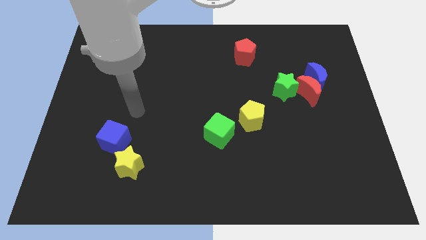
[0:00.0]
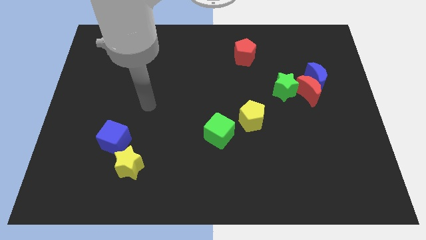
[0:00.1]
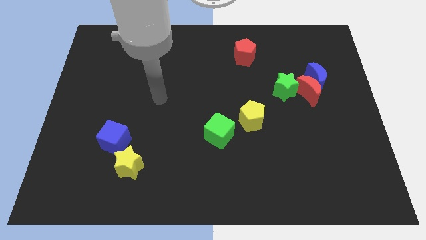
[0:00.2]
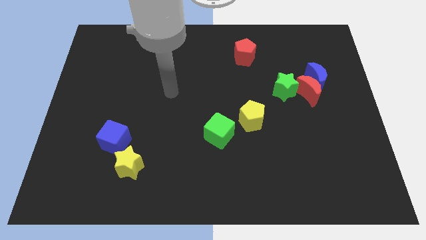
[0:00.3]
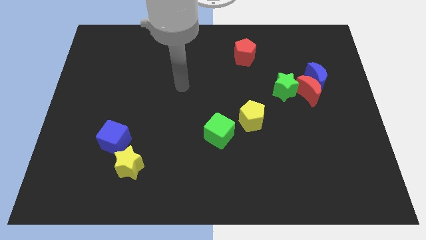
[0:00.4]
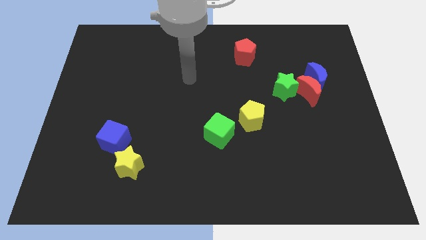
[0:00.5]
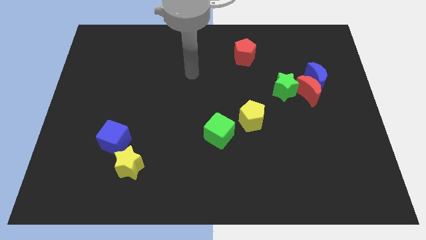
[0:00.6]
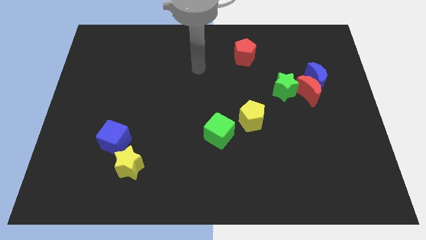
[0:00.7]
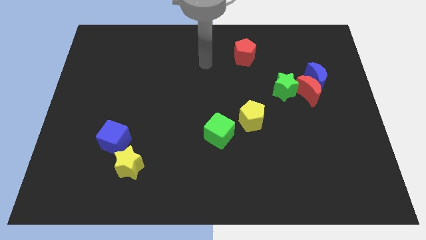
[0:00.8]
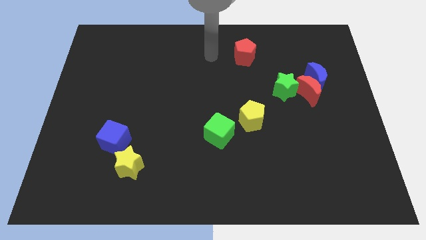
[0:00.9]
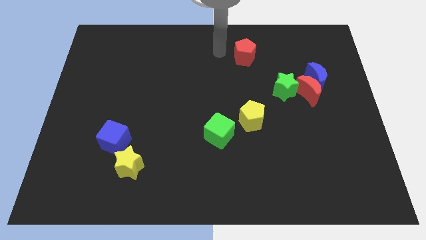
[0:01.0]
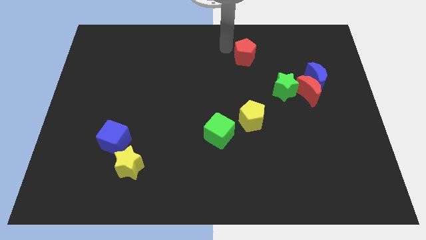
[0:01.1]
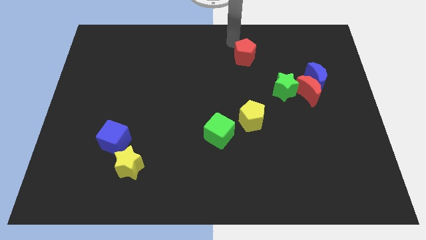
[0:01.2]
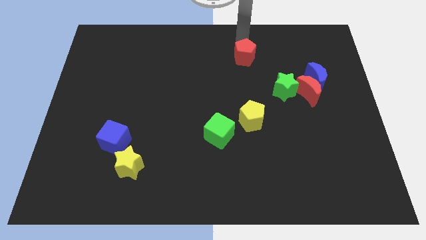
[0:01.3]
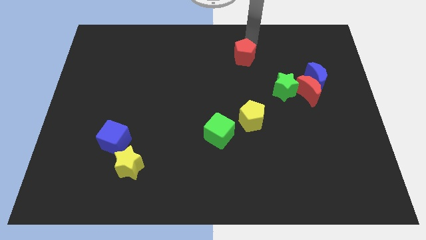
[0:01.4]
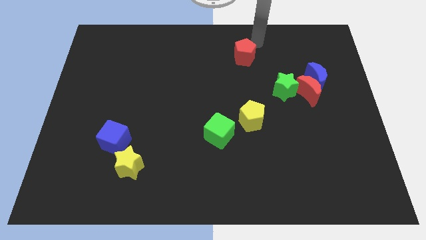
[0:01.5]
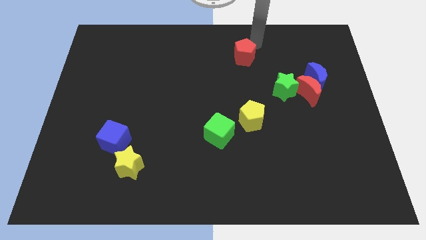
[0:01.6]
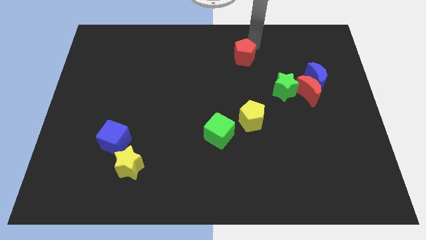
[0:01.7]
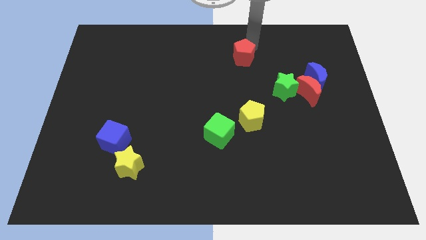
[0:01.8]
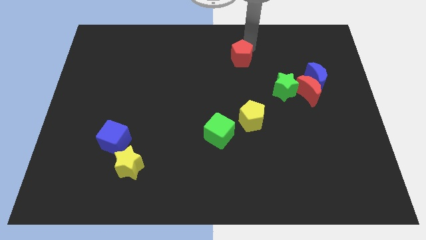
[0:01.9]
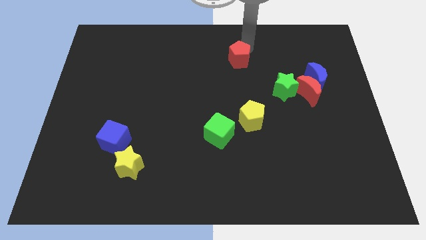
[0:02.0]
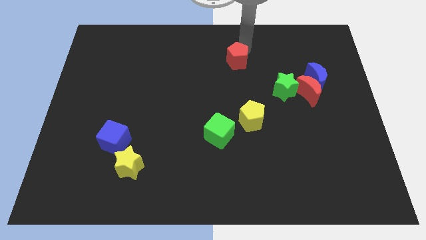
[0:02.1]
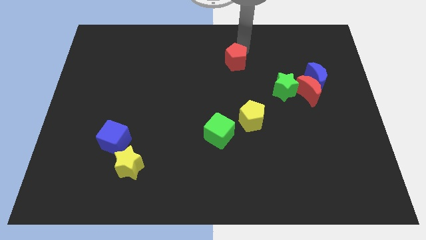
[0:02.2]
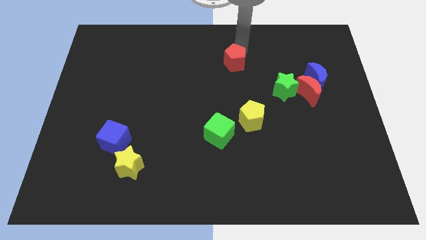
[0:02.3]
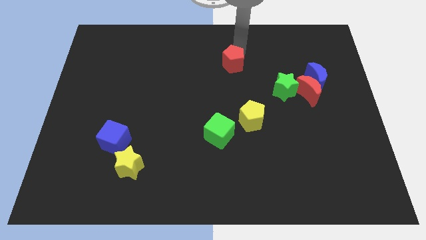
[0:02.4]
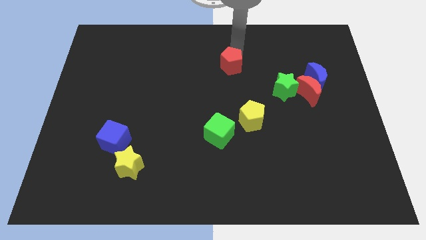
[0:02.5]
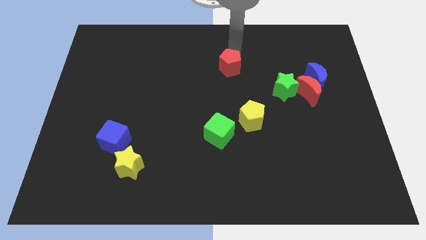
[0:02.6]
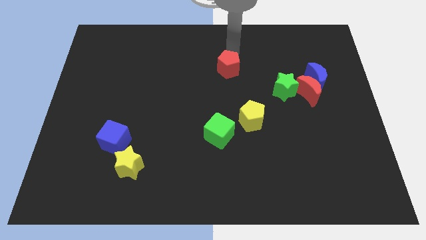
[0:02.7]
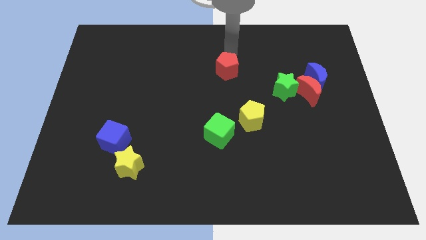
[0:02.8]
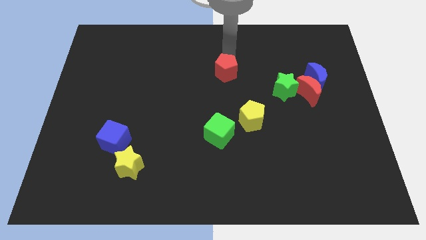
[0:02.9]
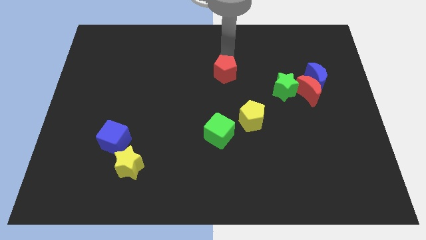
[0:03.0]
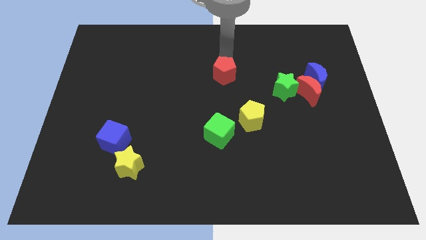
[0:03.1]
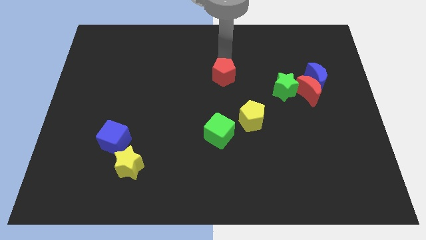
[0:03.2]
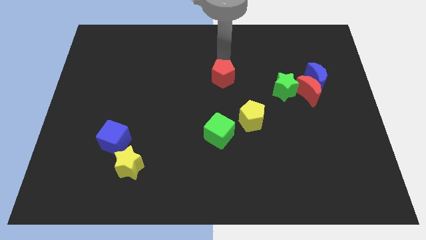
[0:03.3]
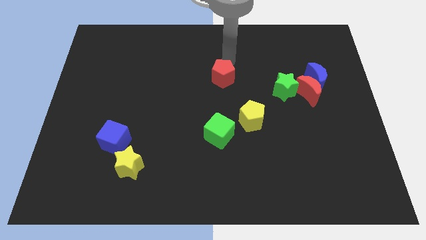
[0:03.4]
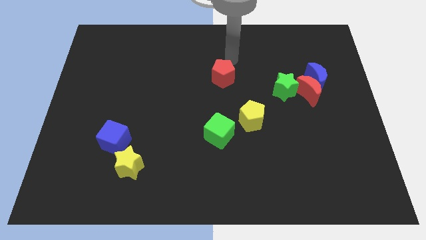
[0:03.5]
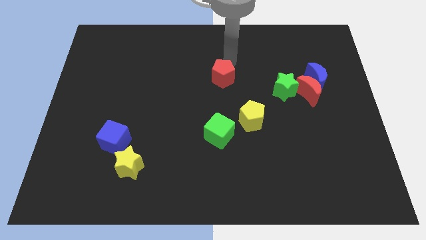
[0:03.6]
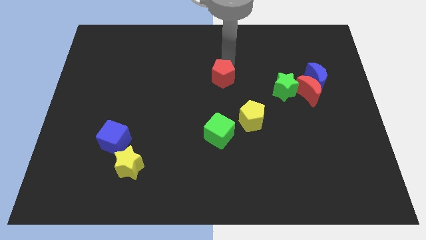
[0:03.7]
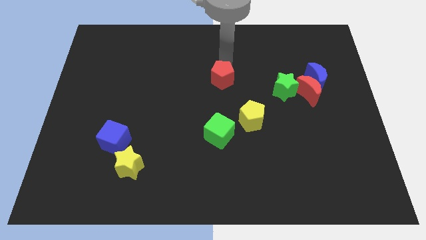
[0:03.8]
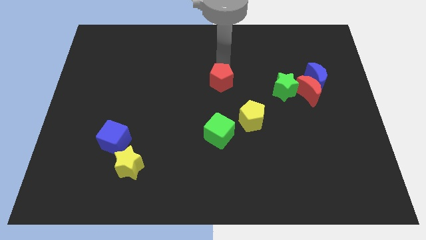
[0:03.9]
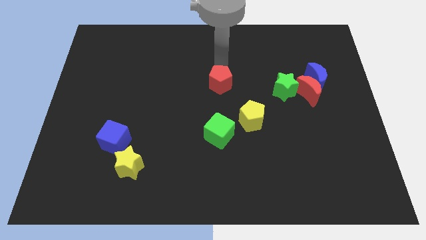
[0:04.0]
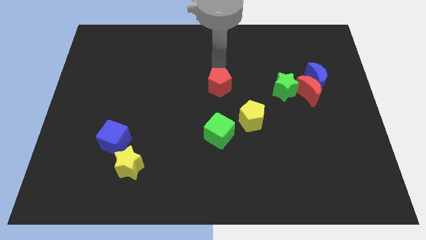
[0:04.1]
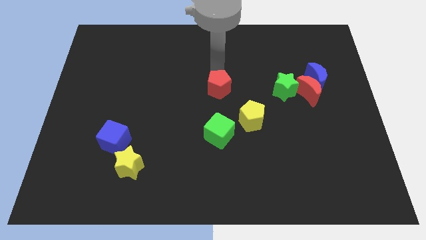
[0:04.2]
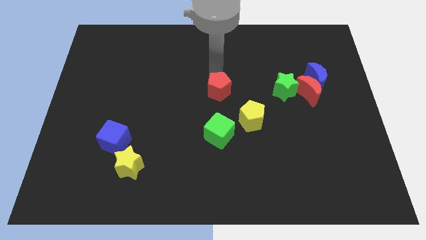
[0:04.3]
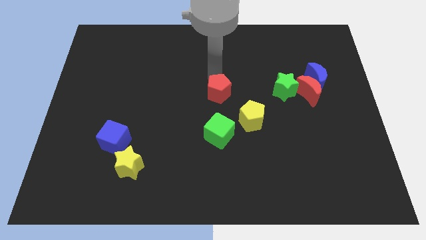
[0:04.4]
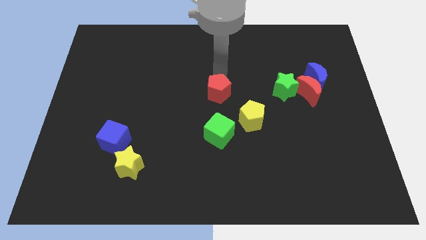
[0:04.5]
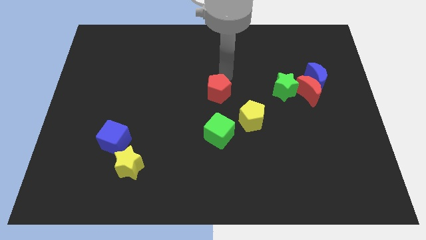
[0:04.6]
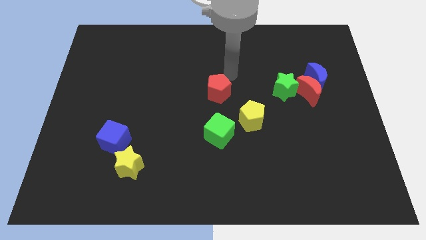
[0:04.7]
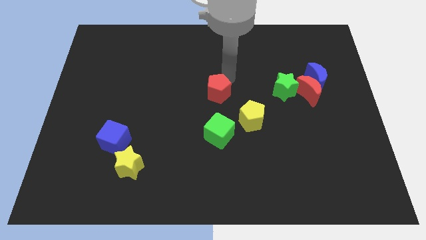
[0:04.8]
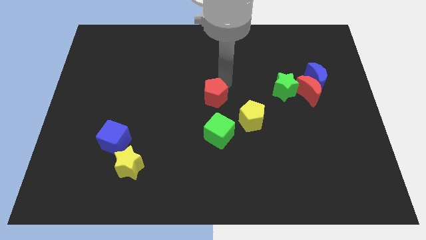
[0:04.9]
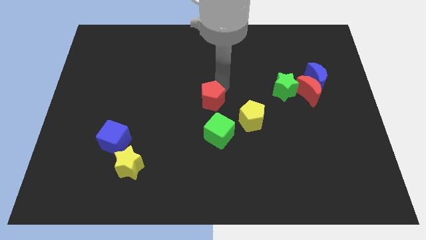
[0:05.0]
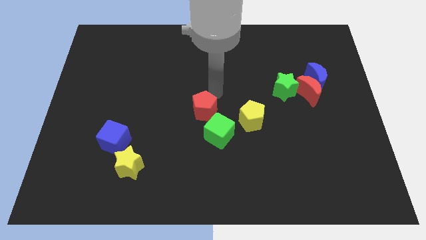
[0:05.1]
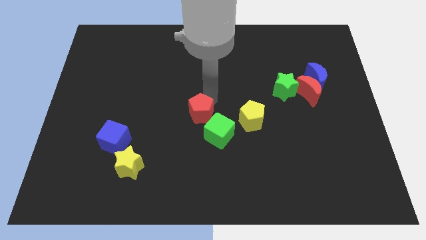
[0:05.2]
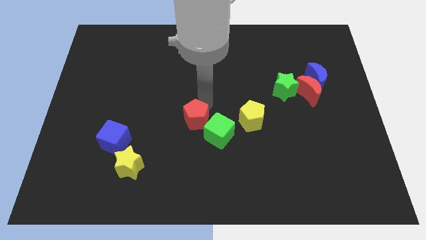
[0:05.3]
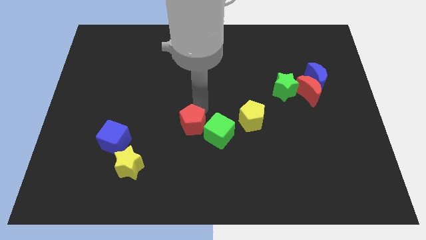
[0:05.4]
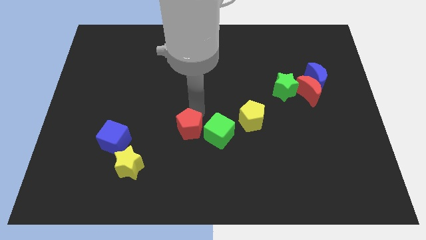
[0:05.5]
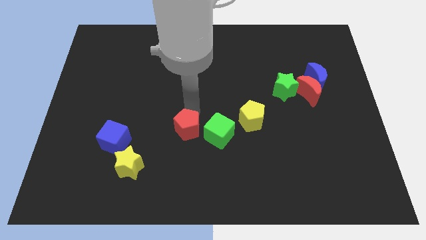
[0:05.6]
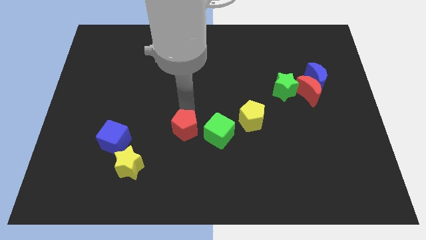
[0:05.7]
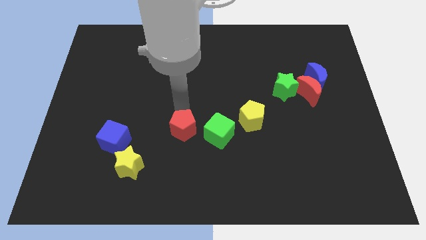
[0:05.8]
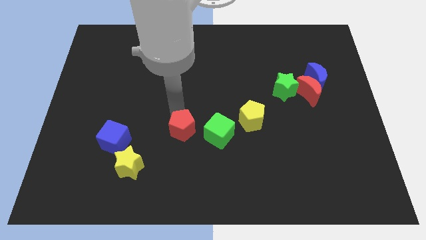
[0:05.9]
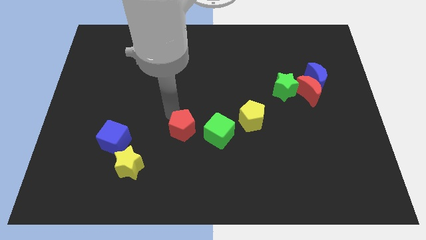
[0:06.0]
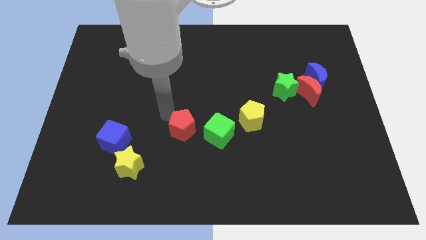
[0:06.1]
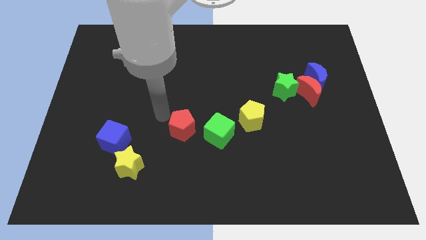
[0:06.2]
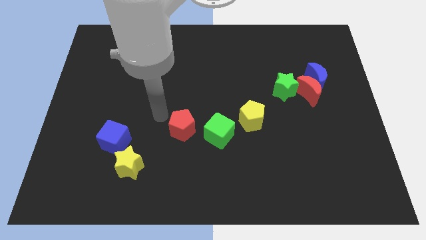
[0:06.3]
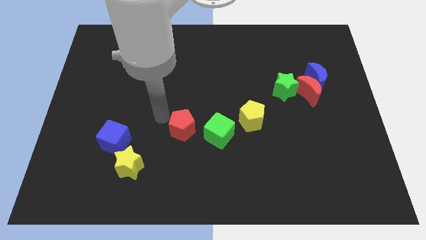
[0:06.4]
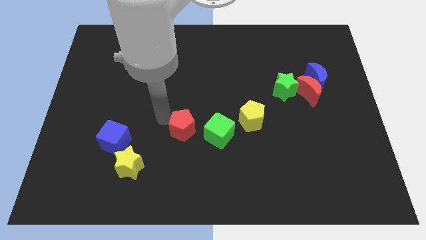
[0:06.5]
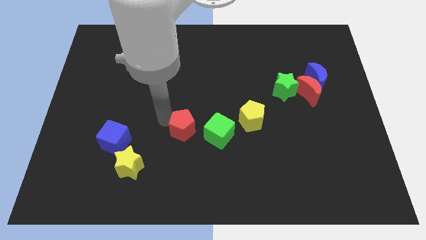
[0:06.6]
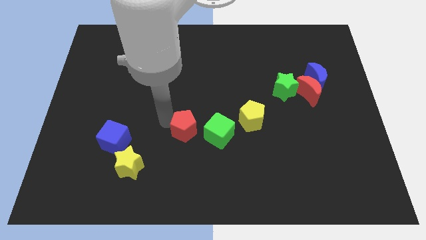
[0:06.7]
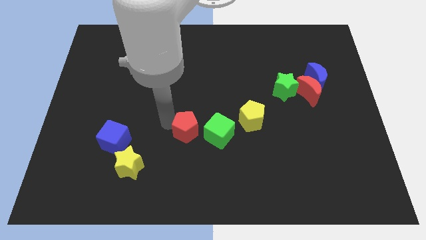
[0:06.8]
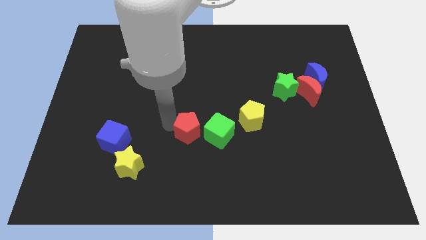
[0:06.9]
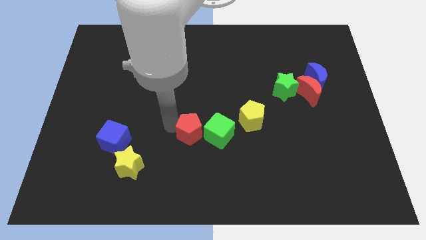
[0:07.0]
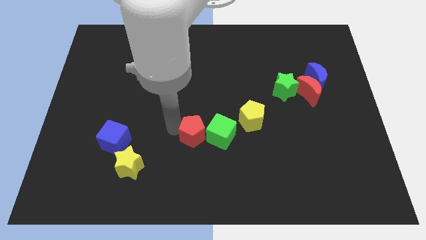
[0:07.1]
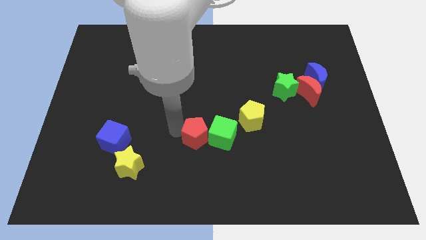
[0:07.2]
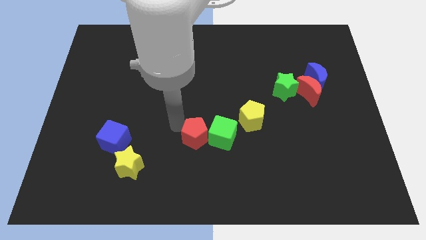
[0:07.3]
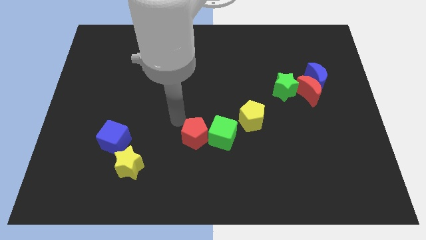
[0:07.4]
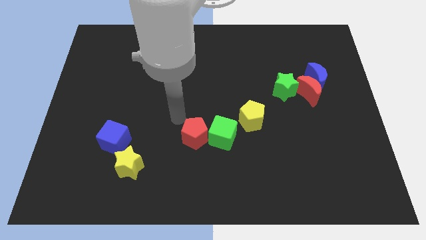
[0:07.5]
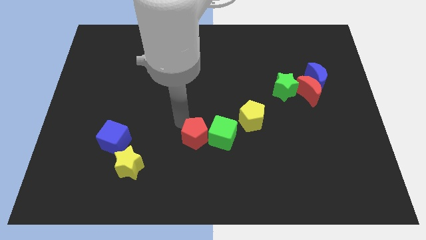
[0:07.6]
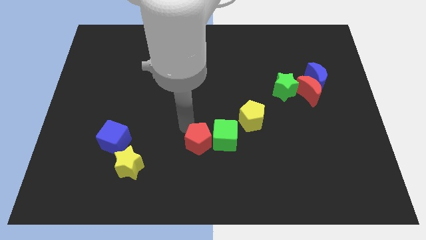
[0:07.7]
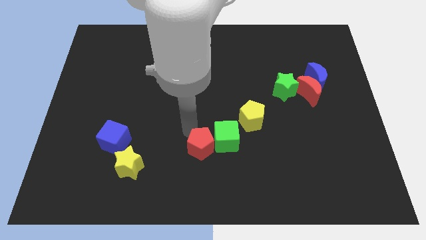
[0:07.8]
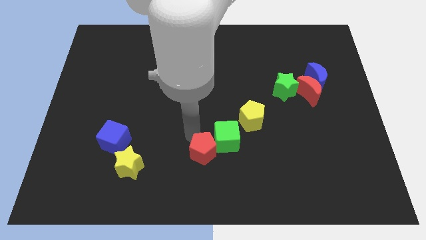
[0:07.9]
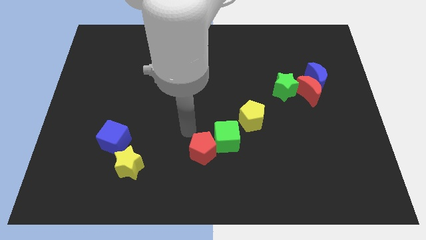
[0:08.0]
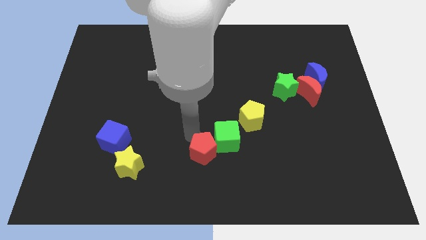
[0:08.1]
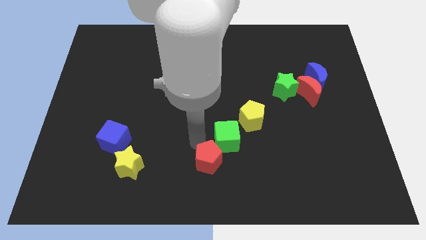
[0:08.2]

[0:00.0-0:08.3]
move the red pentagon to the bottom side of the green cube
